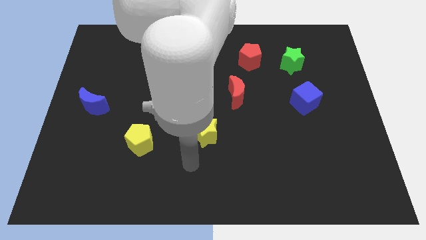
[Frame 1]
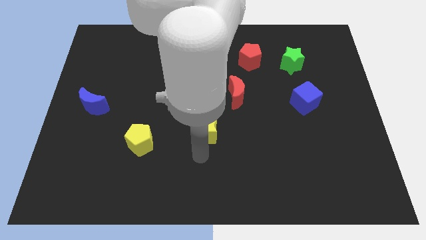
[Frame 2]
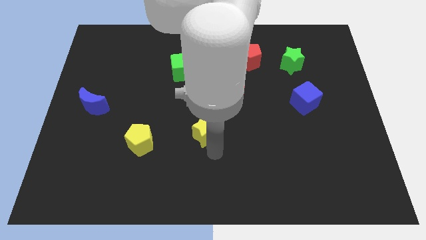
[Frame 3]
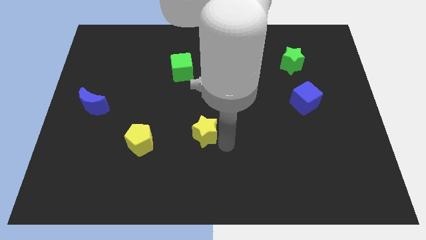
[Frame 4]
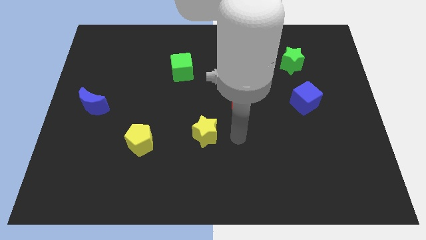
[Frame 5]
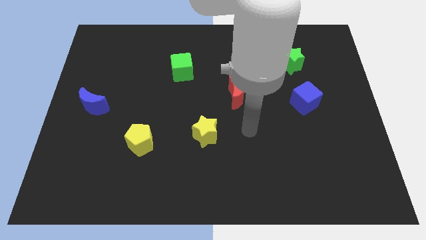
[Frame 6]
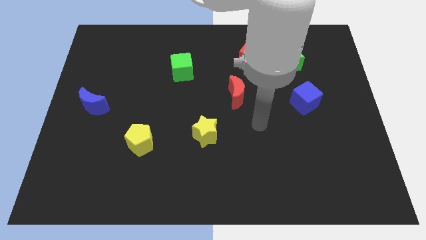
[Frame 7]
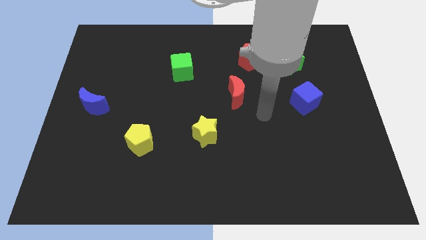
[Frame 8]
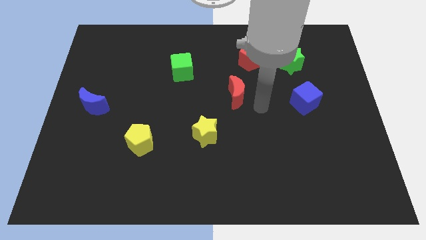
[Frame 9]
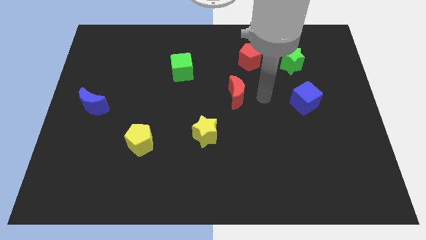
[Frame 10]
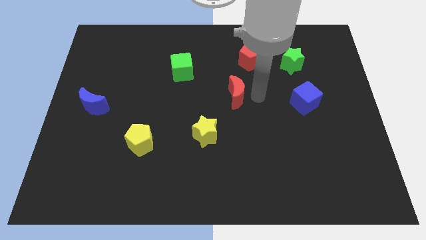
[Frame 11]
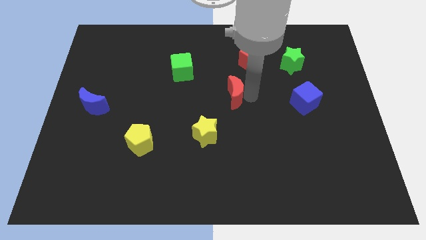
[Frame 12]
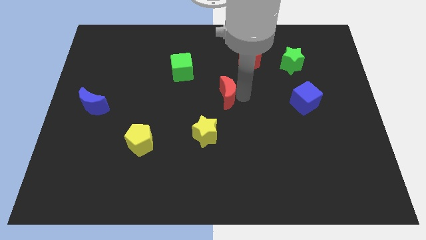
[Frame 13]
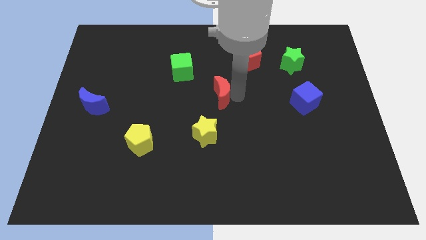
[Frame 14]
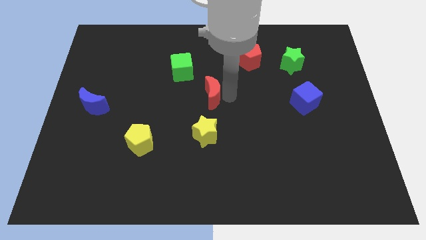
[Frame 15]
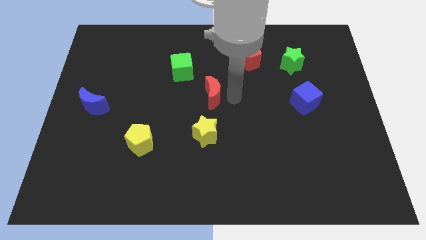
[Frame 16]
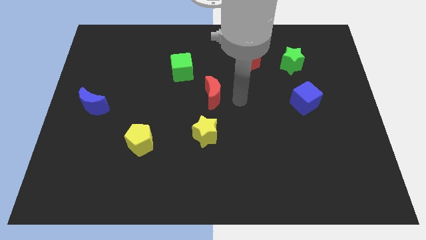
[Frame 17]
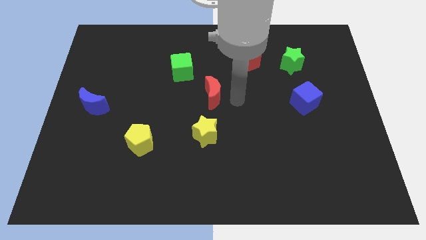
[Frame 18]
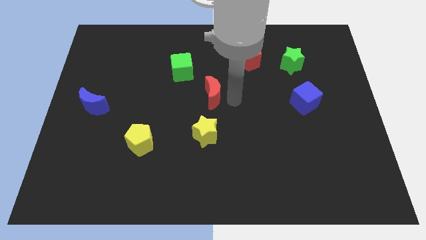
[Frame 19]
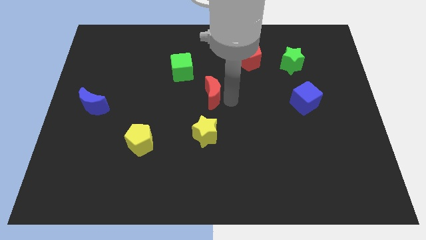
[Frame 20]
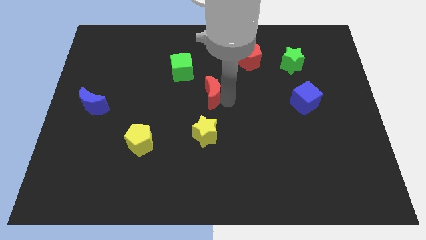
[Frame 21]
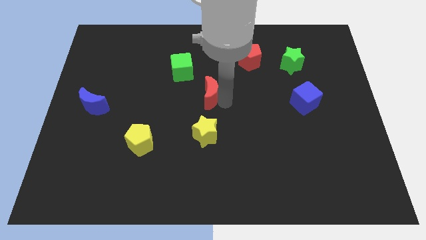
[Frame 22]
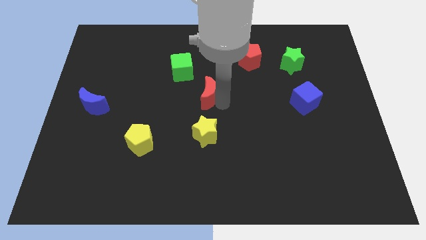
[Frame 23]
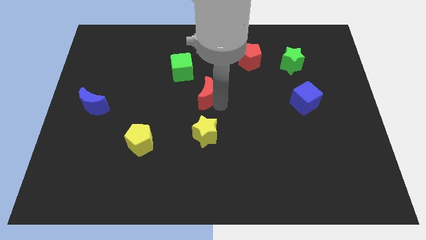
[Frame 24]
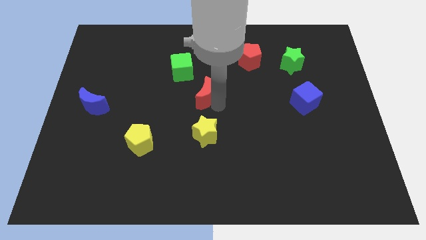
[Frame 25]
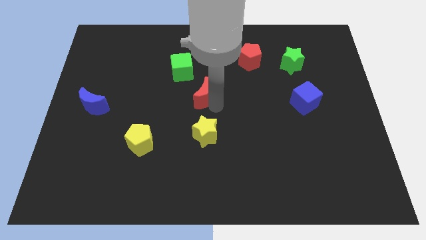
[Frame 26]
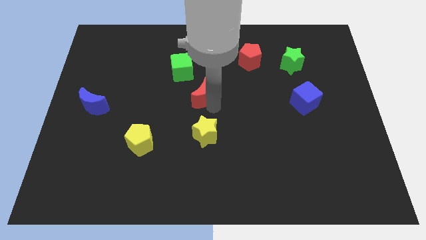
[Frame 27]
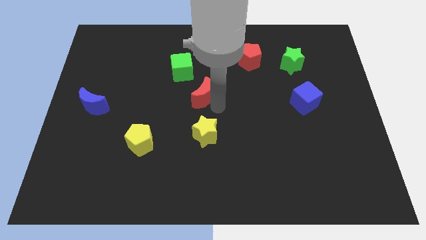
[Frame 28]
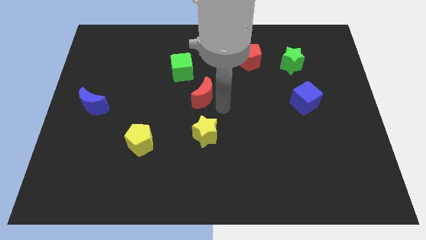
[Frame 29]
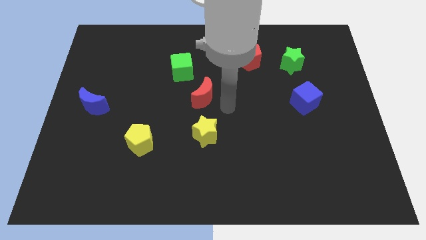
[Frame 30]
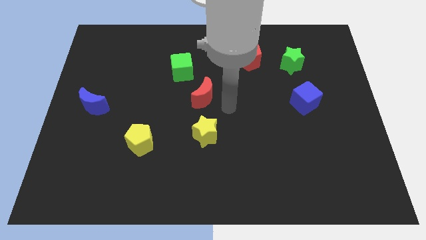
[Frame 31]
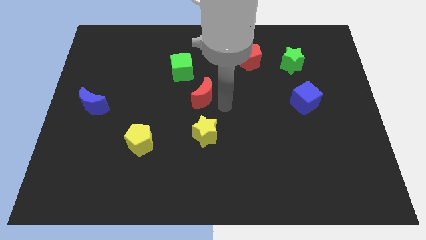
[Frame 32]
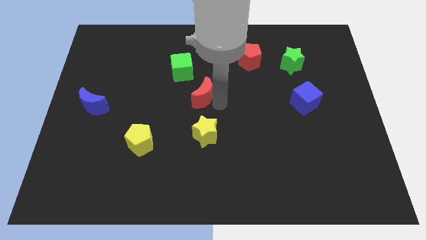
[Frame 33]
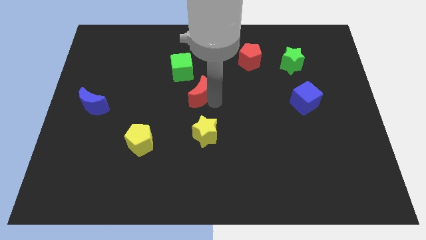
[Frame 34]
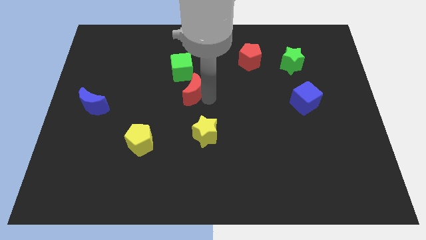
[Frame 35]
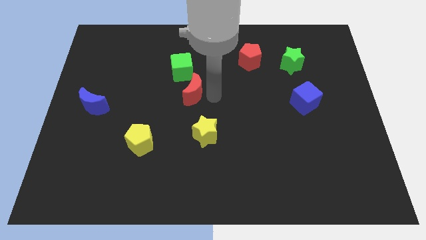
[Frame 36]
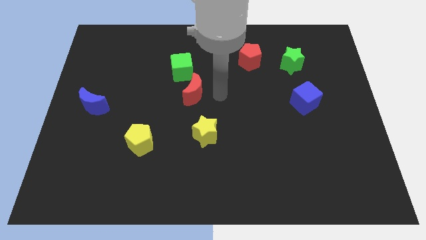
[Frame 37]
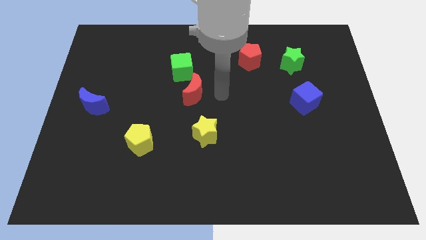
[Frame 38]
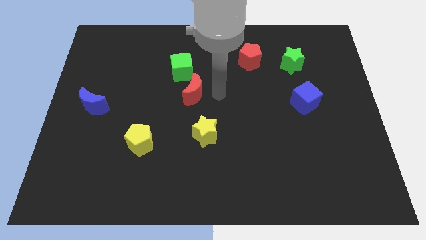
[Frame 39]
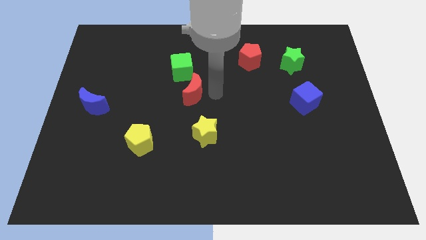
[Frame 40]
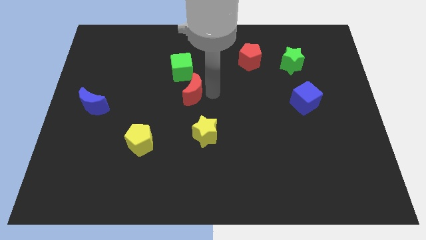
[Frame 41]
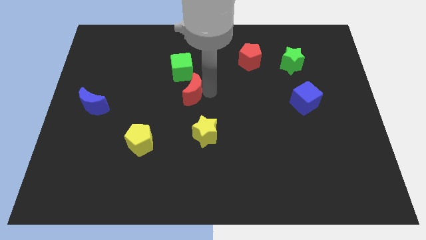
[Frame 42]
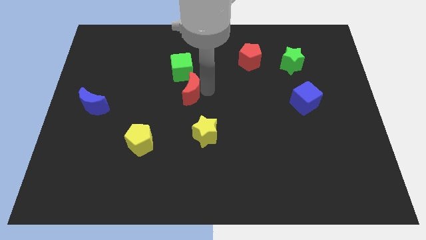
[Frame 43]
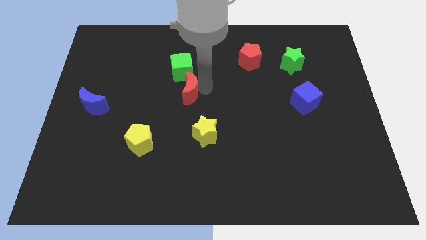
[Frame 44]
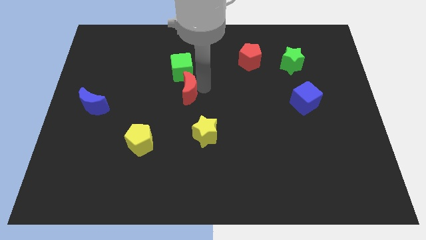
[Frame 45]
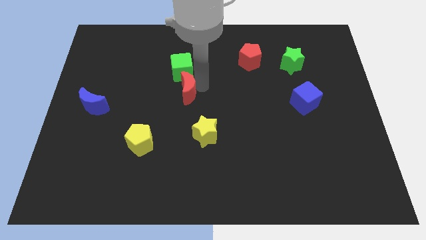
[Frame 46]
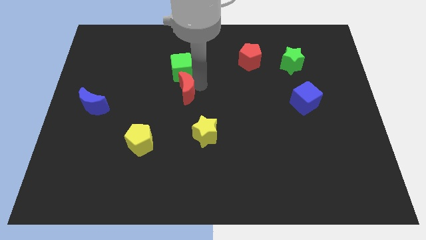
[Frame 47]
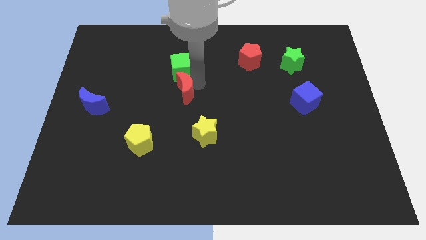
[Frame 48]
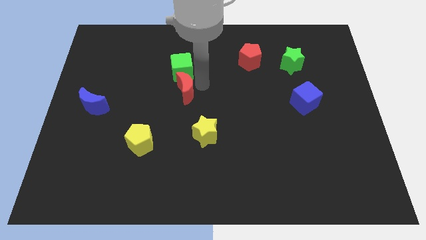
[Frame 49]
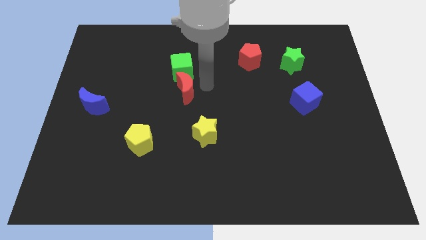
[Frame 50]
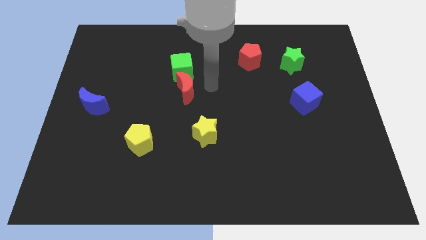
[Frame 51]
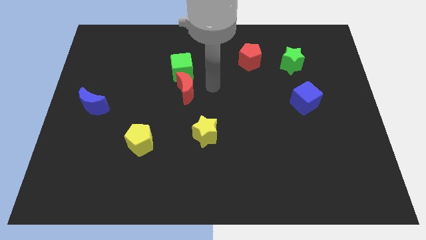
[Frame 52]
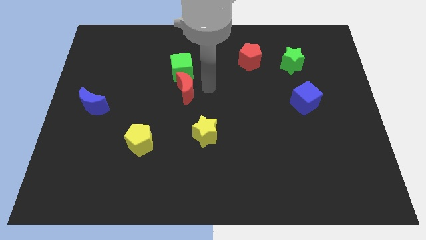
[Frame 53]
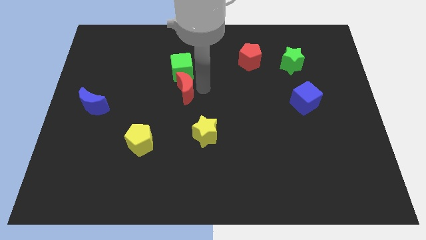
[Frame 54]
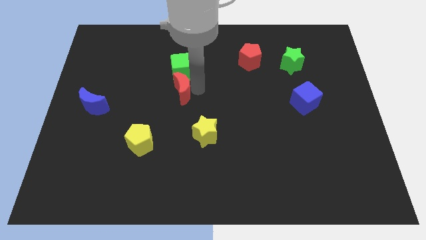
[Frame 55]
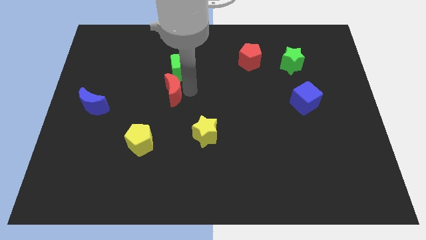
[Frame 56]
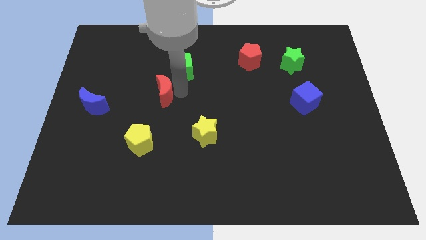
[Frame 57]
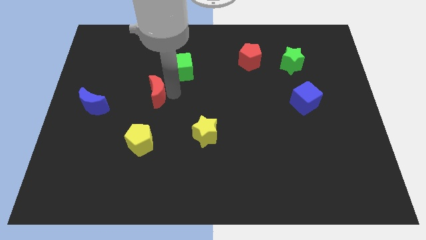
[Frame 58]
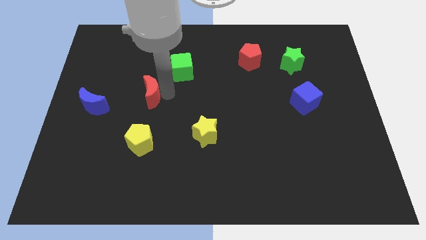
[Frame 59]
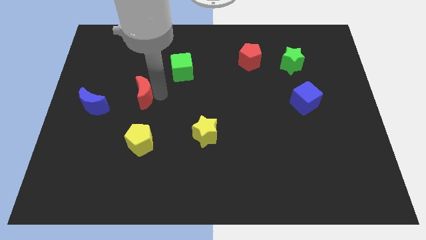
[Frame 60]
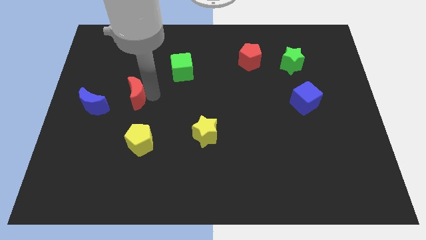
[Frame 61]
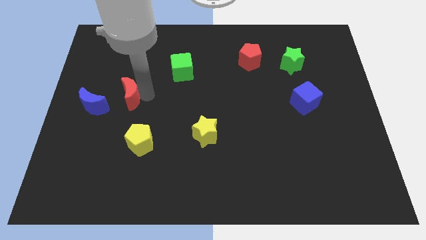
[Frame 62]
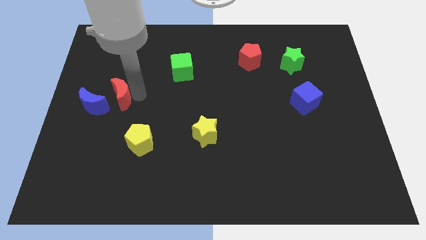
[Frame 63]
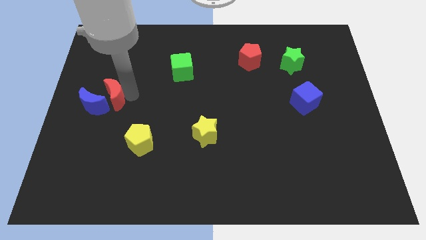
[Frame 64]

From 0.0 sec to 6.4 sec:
push the red moon towards the blue moon

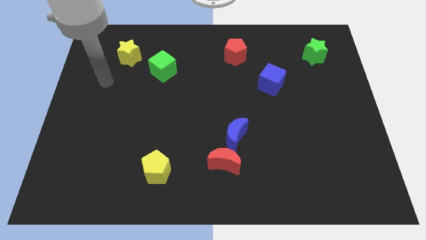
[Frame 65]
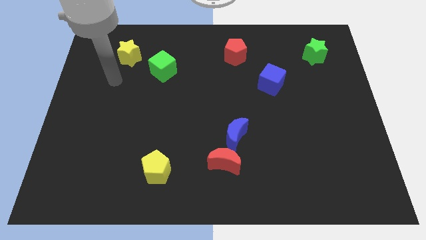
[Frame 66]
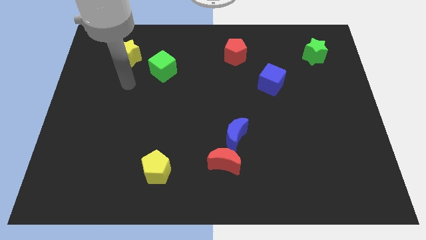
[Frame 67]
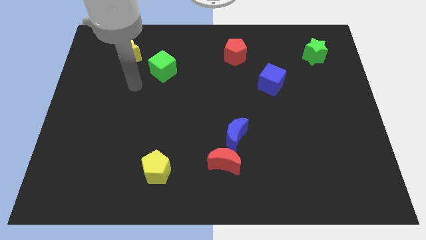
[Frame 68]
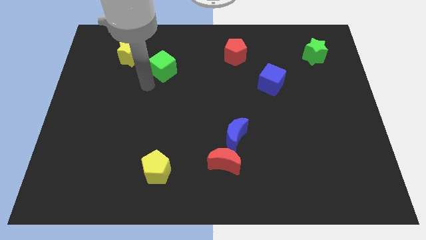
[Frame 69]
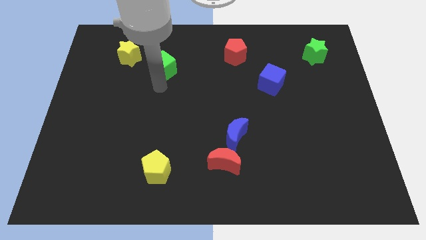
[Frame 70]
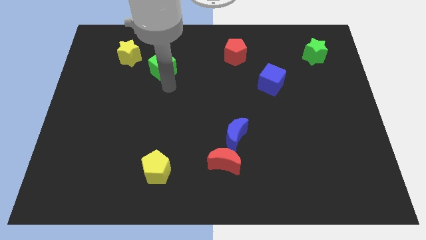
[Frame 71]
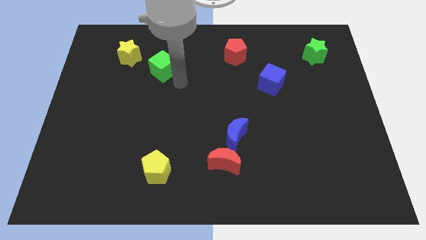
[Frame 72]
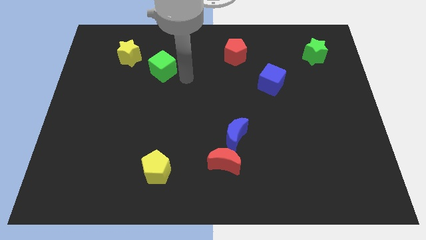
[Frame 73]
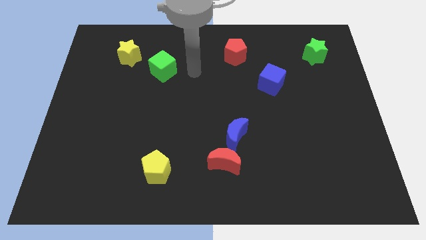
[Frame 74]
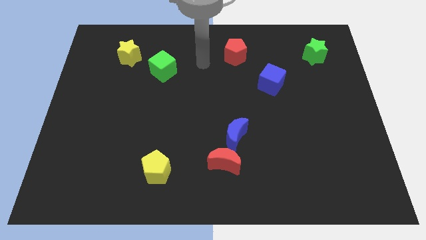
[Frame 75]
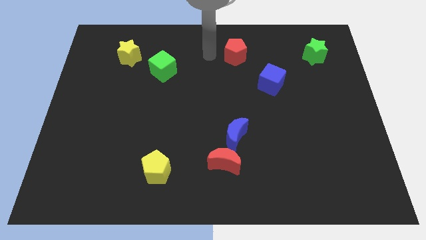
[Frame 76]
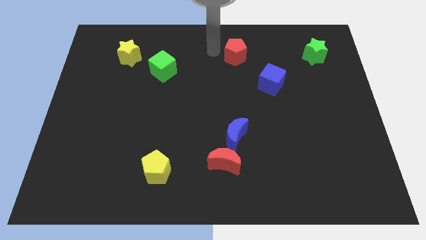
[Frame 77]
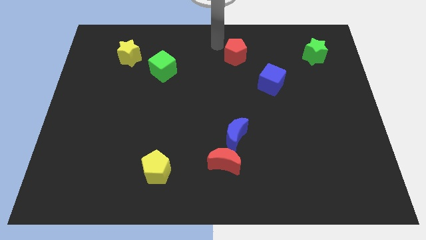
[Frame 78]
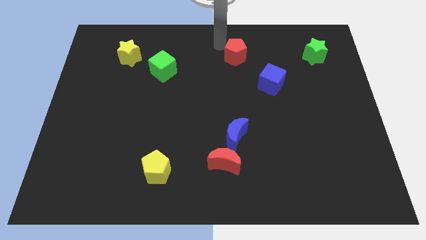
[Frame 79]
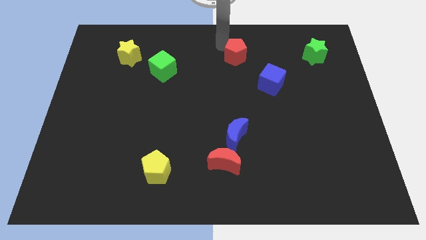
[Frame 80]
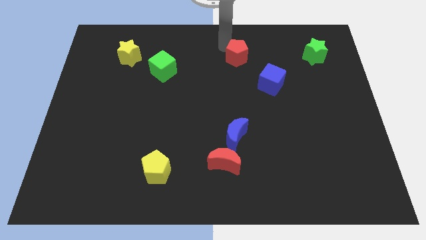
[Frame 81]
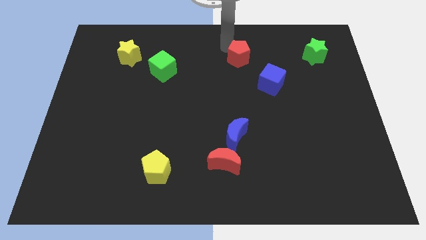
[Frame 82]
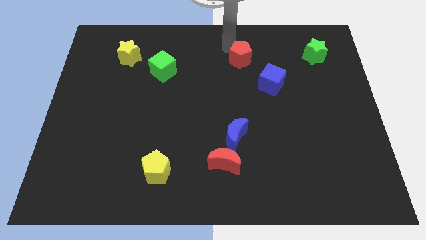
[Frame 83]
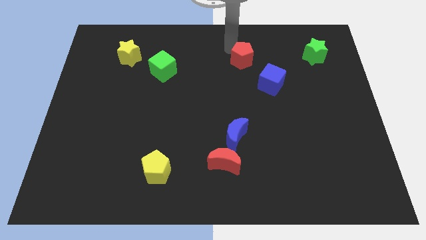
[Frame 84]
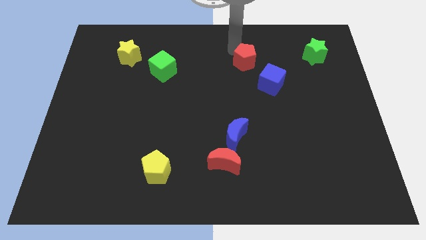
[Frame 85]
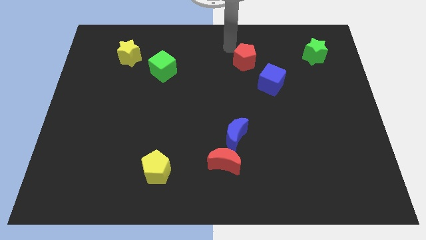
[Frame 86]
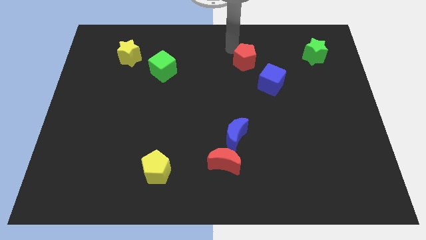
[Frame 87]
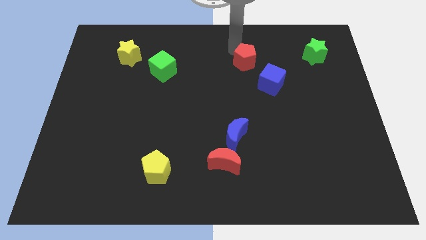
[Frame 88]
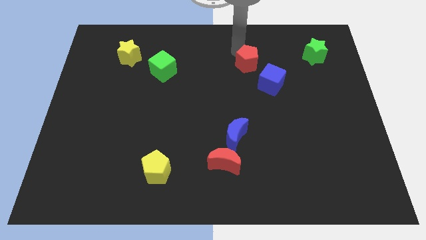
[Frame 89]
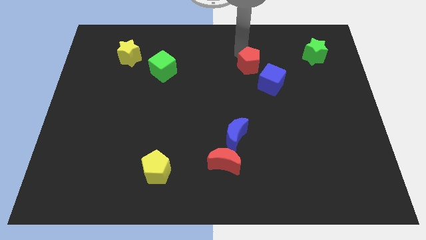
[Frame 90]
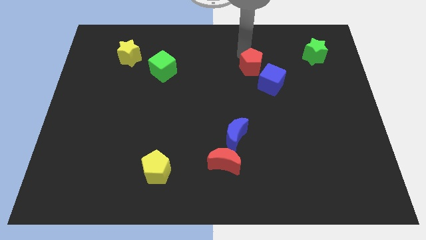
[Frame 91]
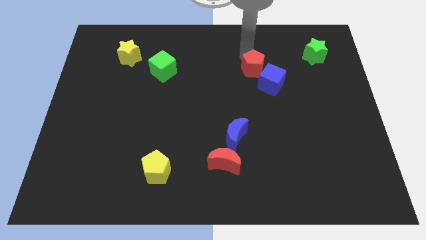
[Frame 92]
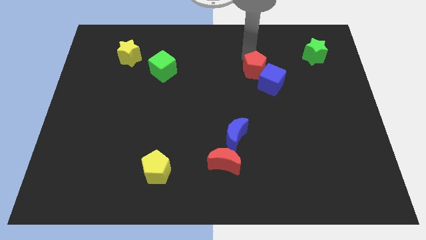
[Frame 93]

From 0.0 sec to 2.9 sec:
put the red pentagon next to the blue cube
